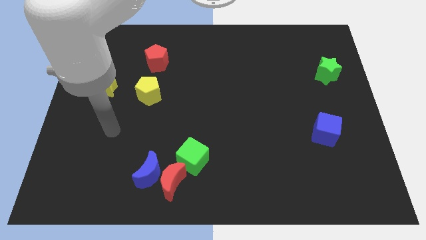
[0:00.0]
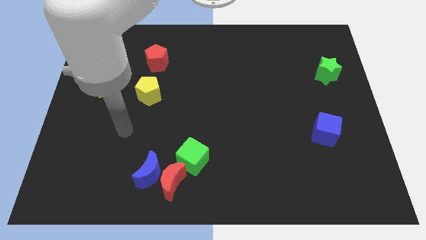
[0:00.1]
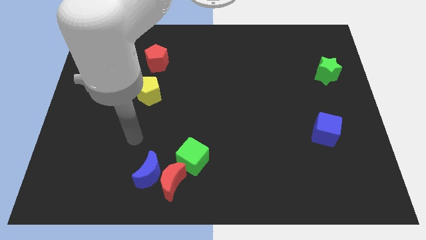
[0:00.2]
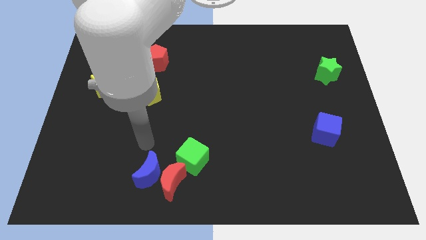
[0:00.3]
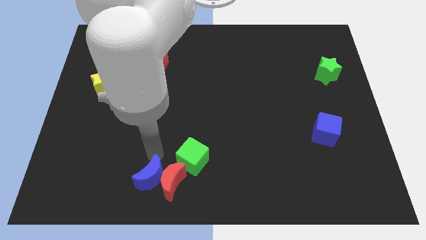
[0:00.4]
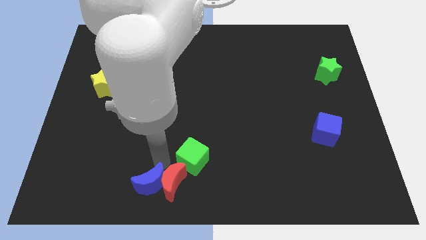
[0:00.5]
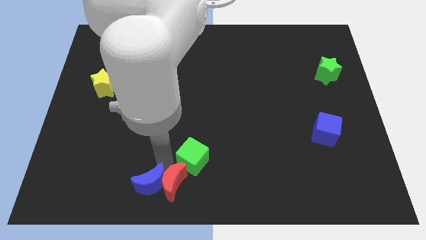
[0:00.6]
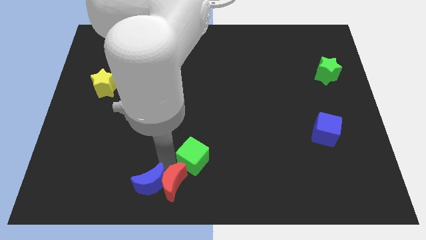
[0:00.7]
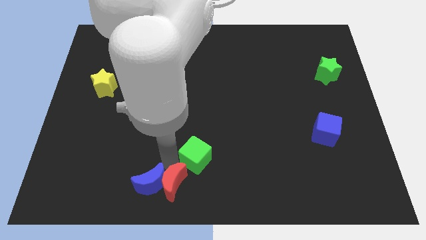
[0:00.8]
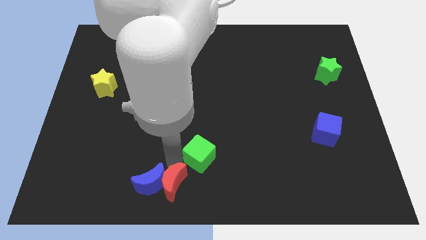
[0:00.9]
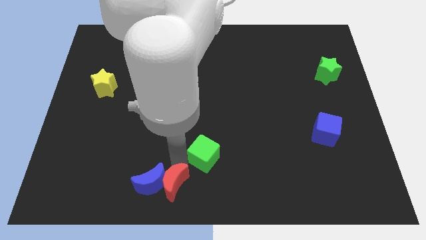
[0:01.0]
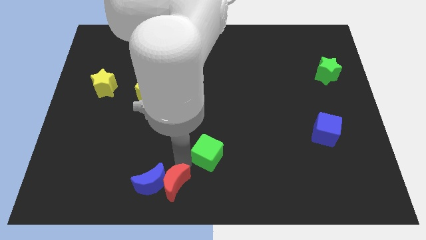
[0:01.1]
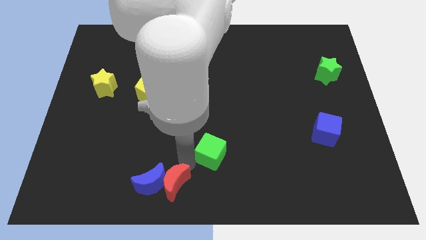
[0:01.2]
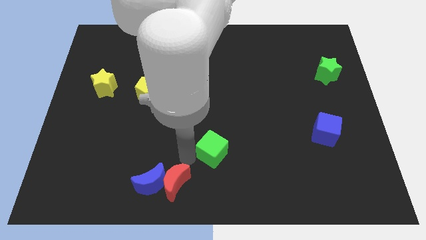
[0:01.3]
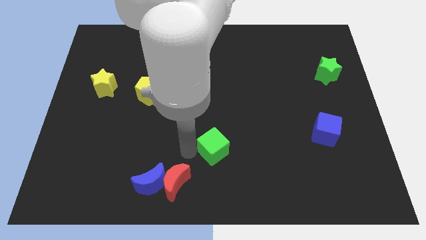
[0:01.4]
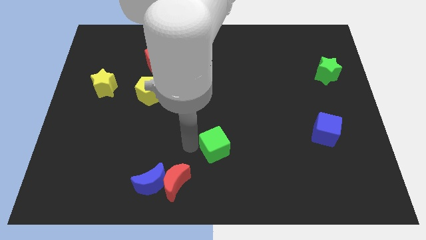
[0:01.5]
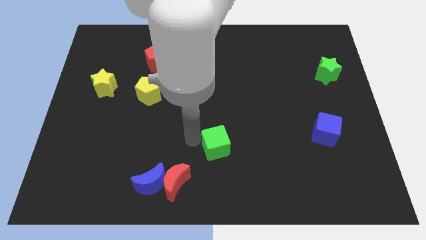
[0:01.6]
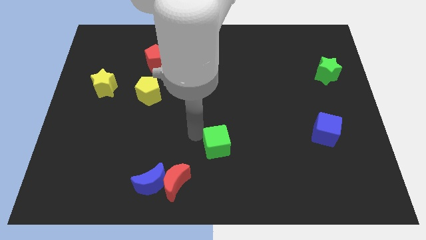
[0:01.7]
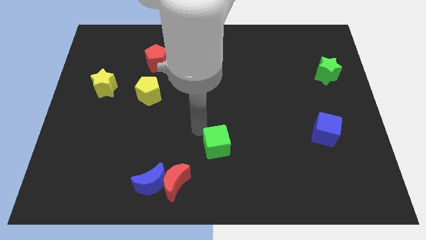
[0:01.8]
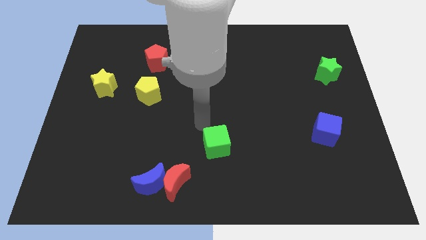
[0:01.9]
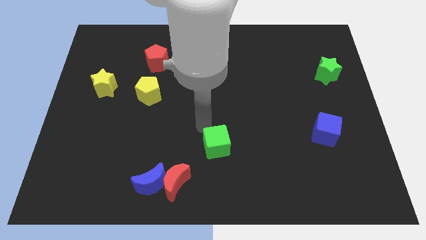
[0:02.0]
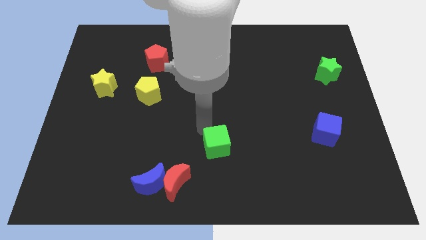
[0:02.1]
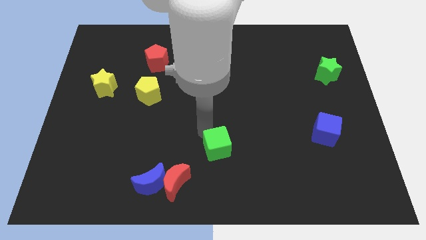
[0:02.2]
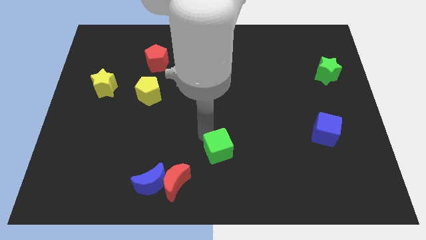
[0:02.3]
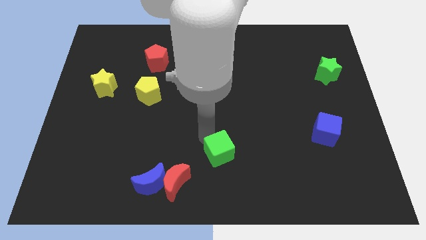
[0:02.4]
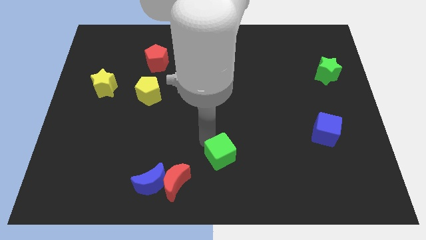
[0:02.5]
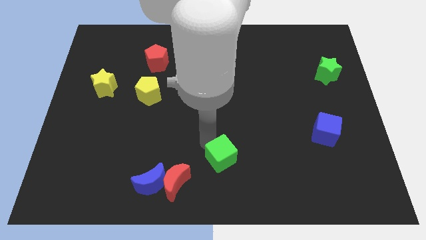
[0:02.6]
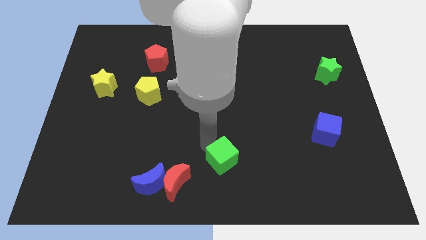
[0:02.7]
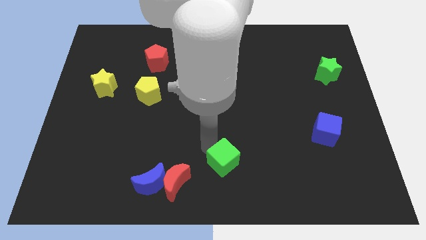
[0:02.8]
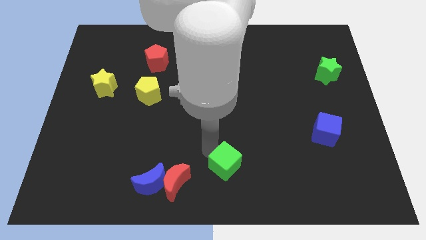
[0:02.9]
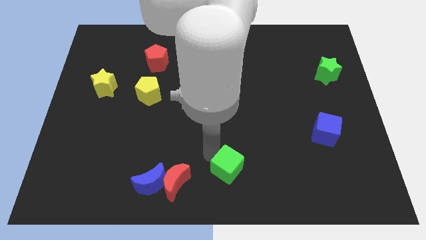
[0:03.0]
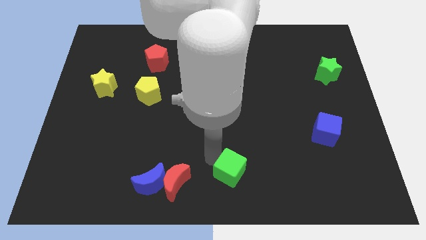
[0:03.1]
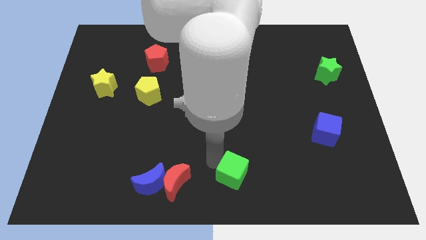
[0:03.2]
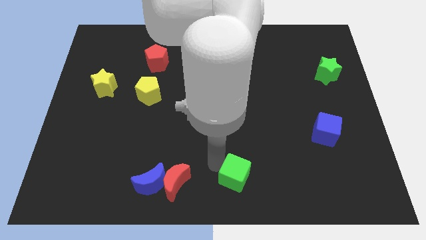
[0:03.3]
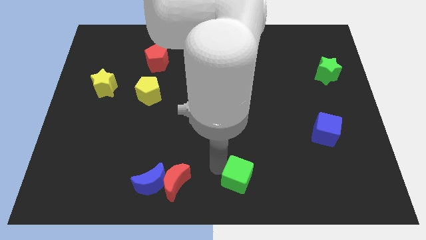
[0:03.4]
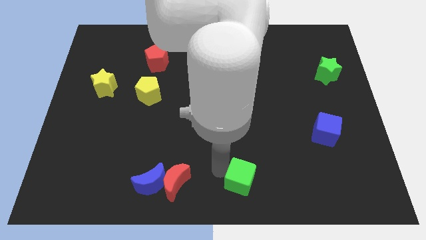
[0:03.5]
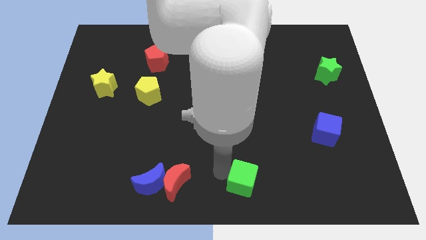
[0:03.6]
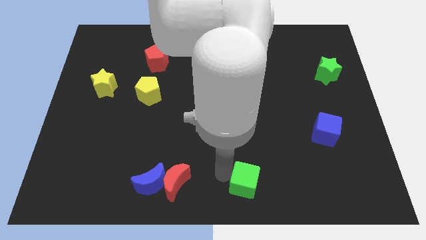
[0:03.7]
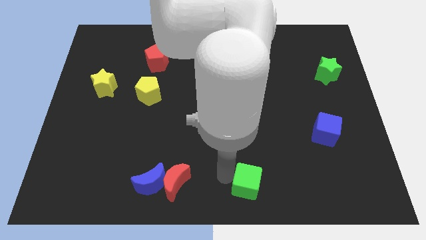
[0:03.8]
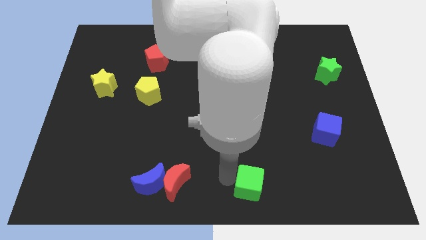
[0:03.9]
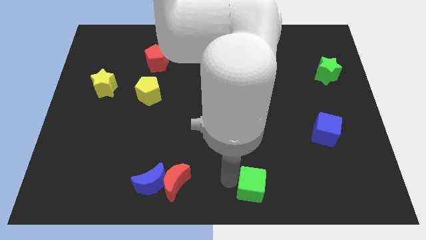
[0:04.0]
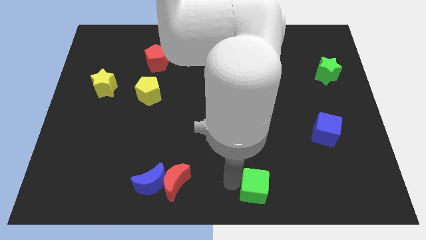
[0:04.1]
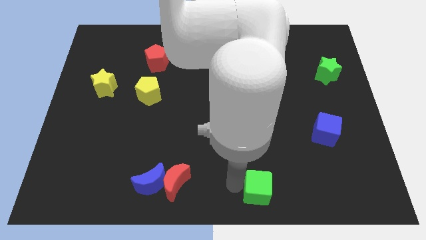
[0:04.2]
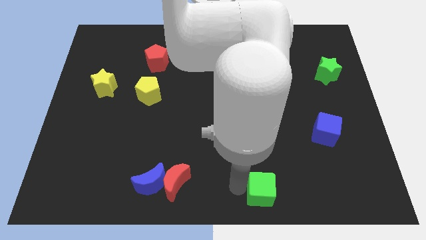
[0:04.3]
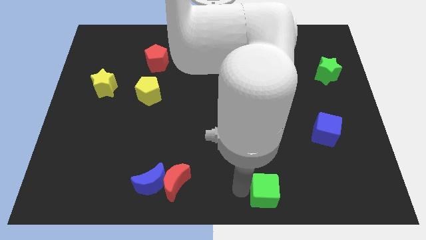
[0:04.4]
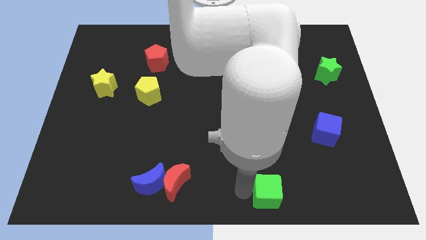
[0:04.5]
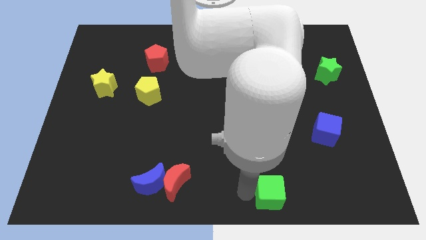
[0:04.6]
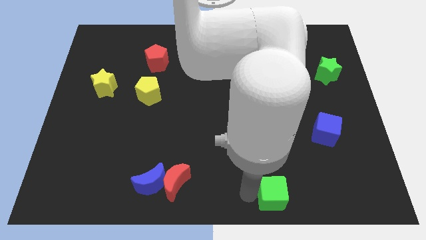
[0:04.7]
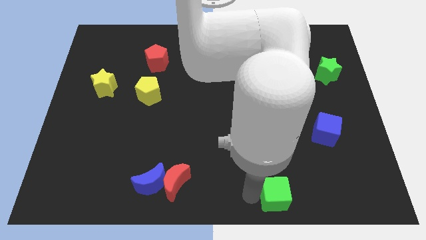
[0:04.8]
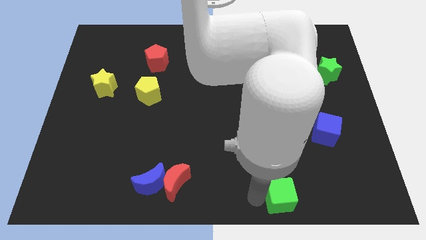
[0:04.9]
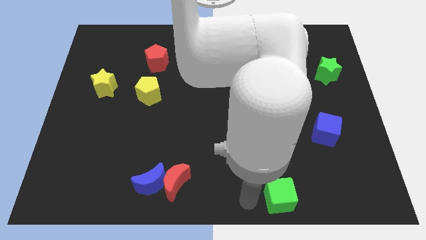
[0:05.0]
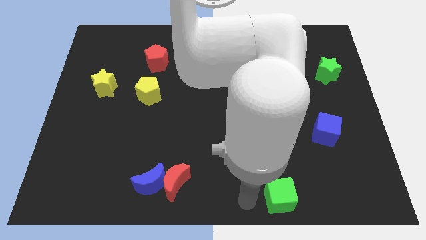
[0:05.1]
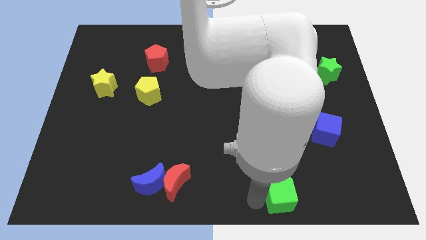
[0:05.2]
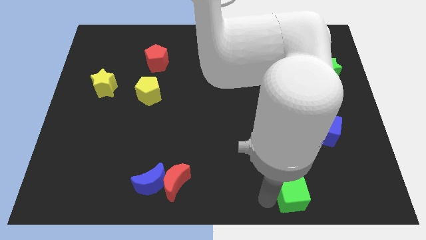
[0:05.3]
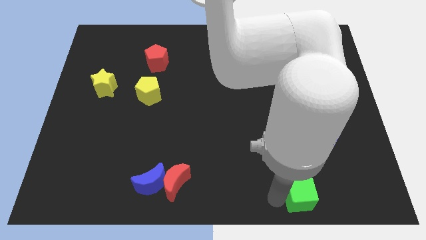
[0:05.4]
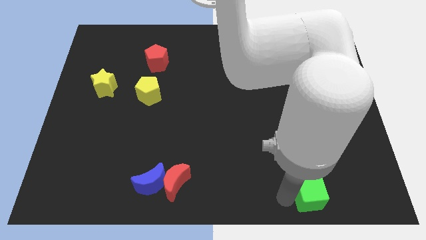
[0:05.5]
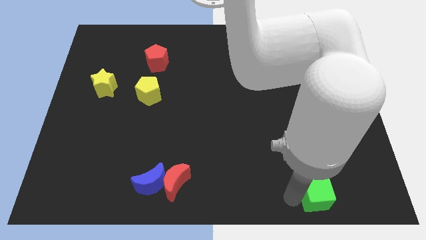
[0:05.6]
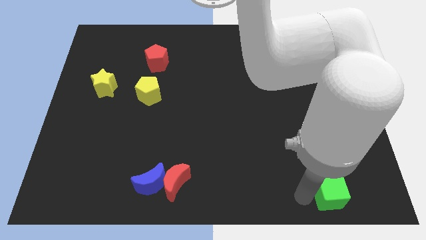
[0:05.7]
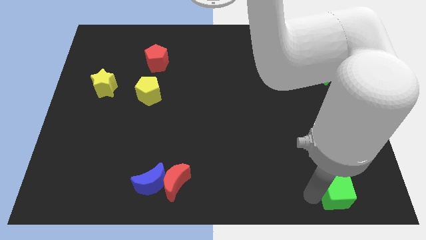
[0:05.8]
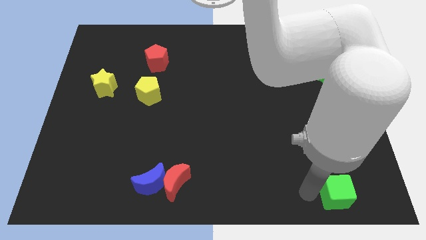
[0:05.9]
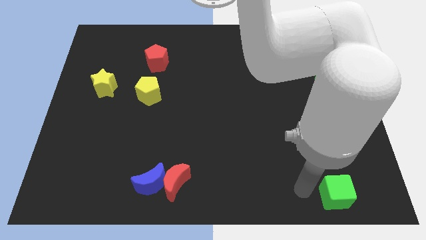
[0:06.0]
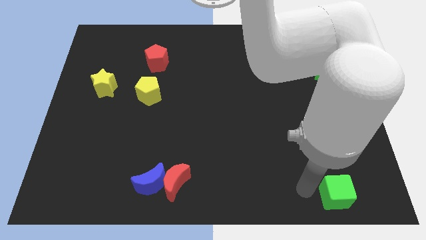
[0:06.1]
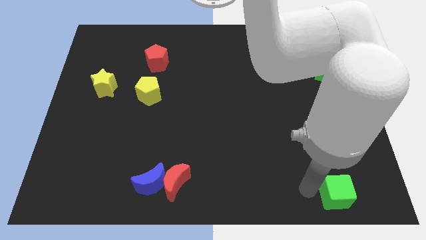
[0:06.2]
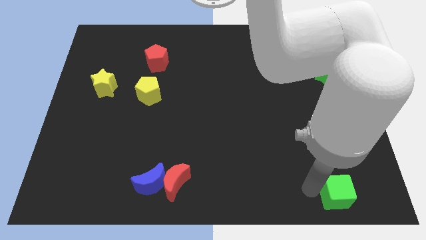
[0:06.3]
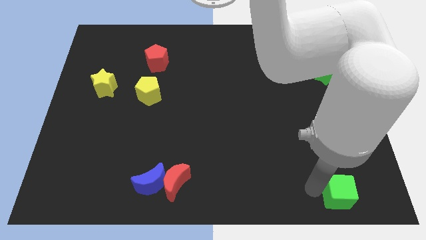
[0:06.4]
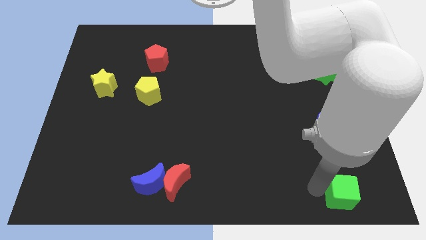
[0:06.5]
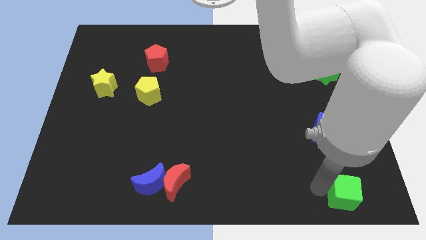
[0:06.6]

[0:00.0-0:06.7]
put the green cube to the bottom right corner
